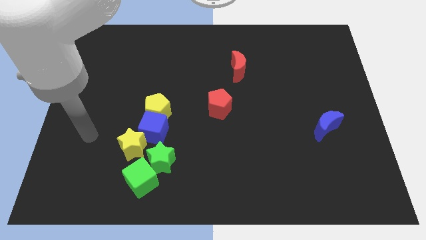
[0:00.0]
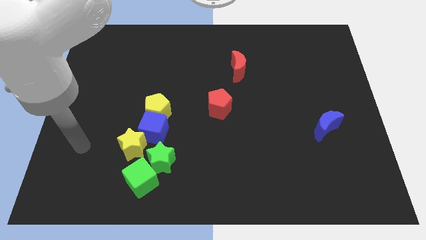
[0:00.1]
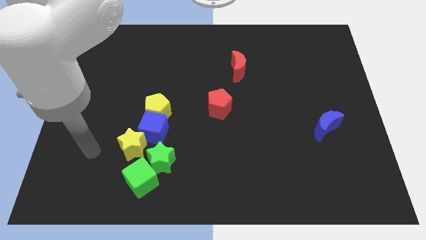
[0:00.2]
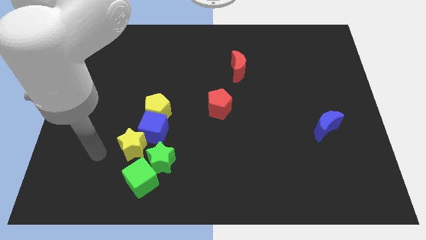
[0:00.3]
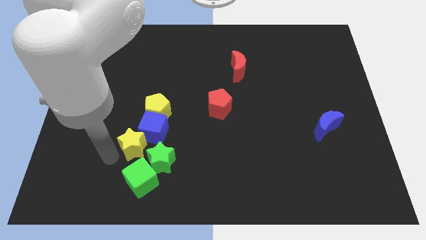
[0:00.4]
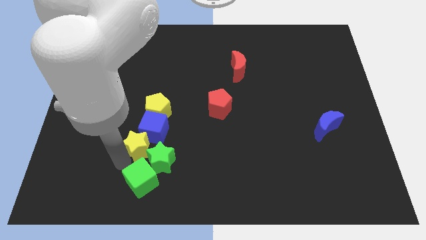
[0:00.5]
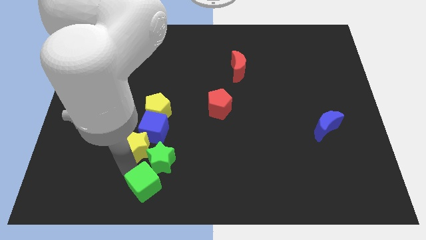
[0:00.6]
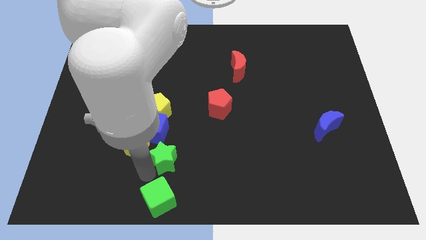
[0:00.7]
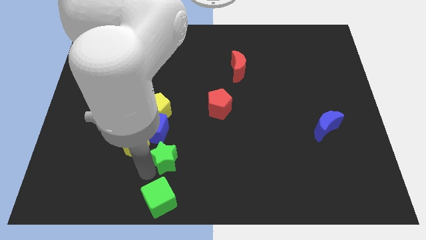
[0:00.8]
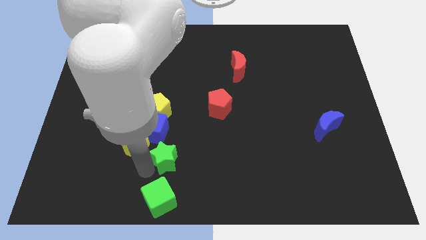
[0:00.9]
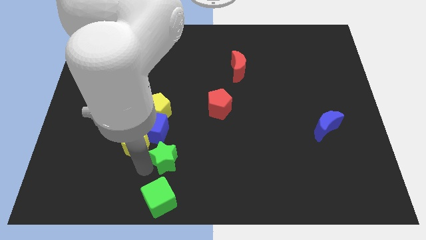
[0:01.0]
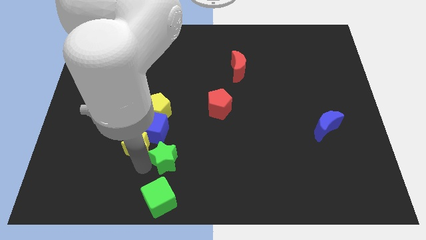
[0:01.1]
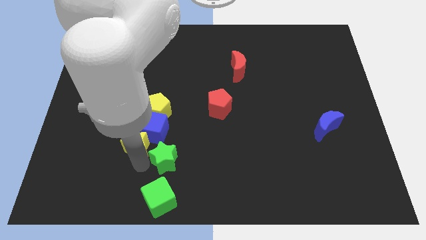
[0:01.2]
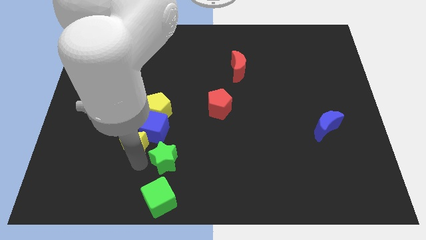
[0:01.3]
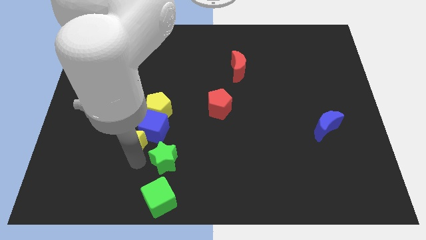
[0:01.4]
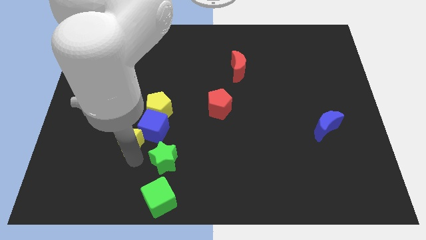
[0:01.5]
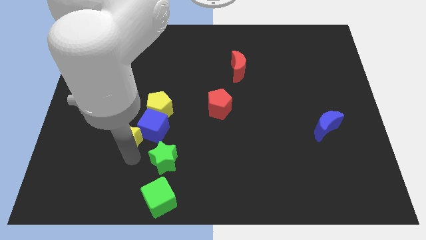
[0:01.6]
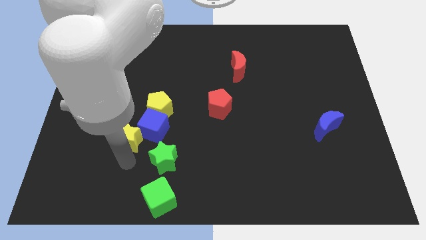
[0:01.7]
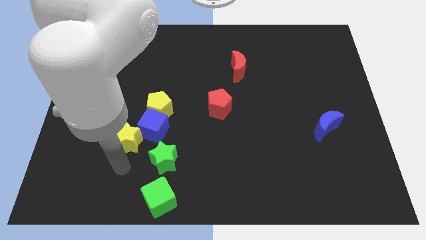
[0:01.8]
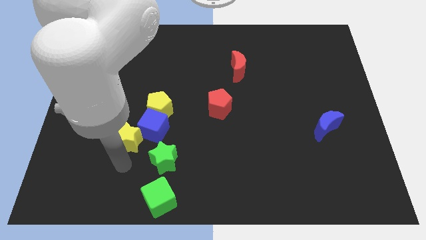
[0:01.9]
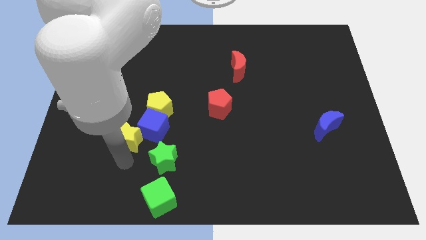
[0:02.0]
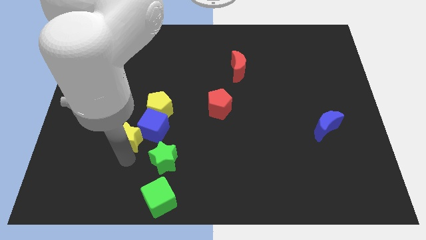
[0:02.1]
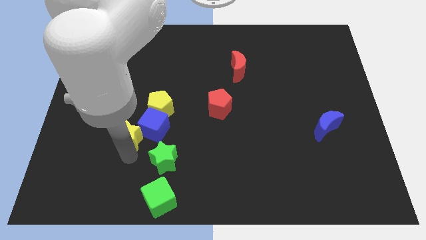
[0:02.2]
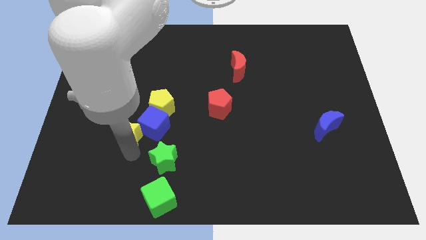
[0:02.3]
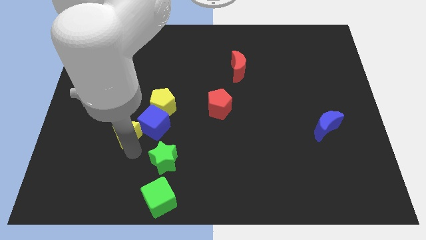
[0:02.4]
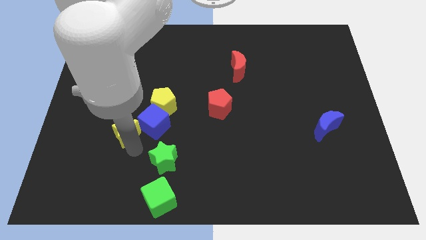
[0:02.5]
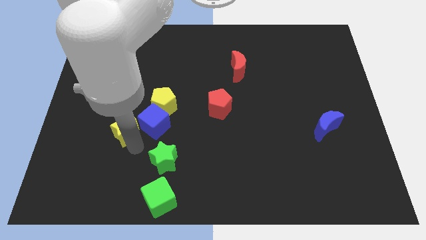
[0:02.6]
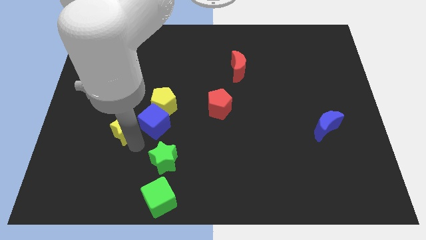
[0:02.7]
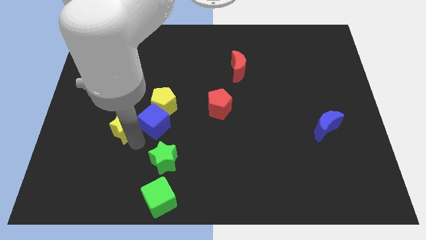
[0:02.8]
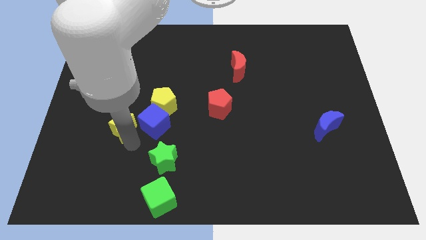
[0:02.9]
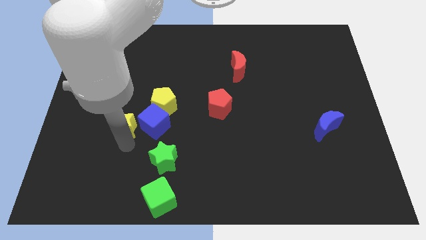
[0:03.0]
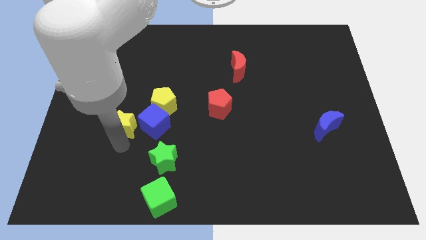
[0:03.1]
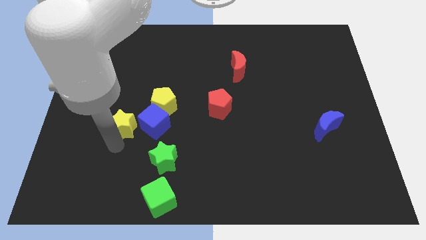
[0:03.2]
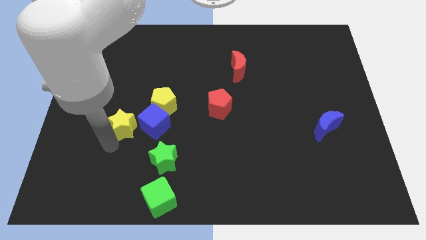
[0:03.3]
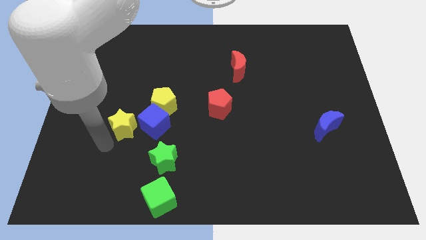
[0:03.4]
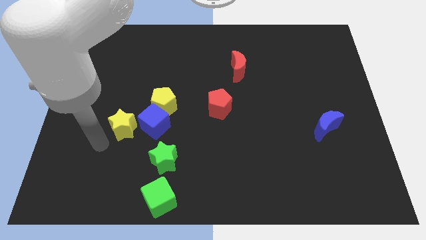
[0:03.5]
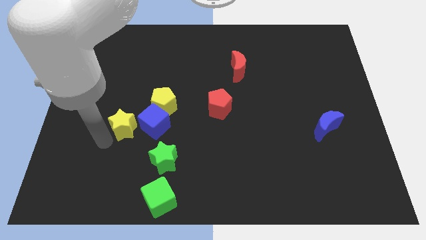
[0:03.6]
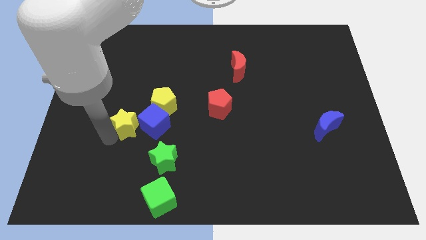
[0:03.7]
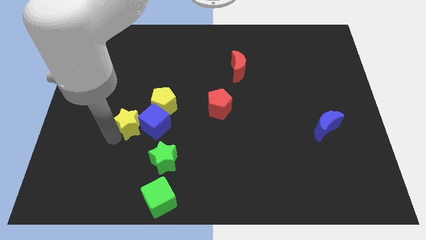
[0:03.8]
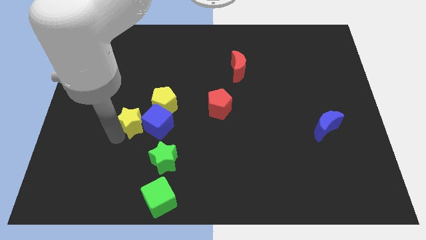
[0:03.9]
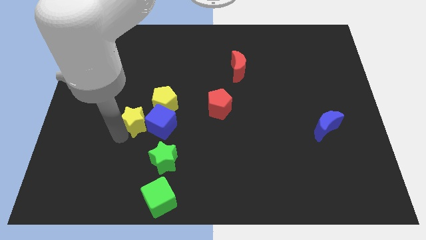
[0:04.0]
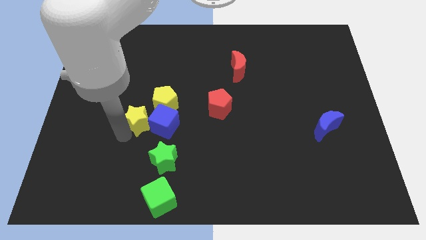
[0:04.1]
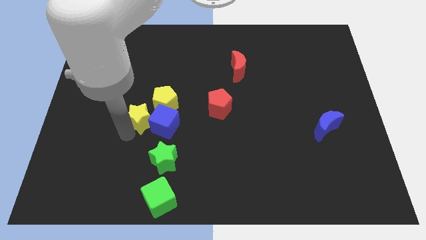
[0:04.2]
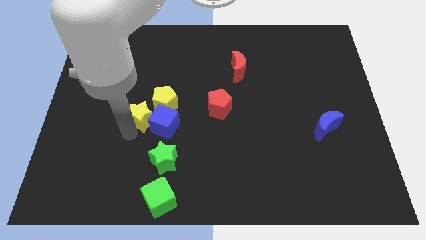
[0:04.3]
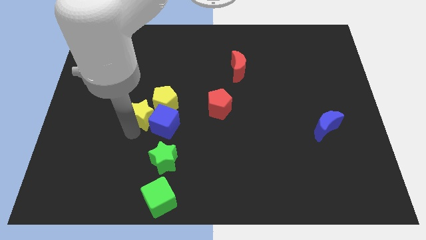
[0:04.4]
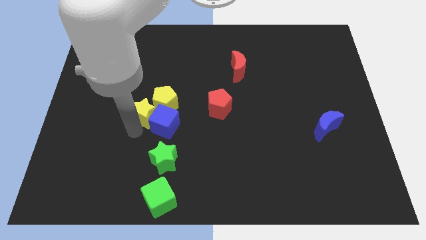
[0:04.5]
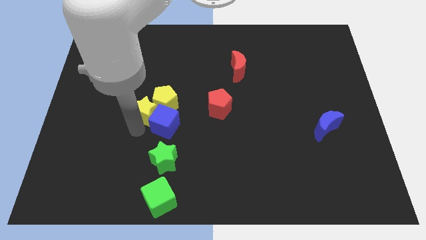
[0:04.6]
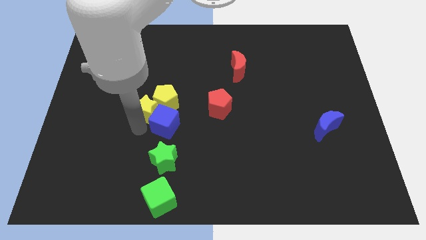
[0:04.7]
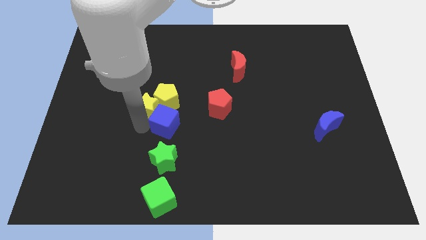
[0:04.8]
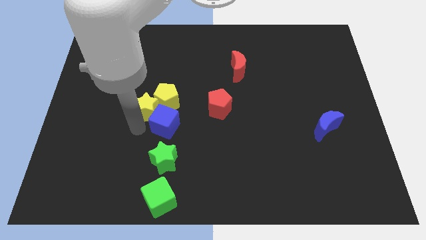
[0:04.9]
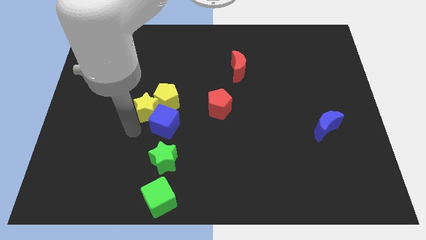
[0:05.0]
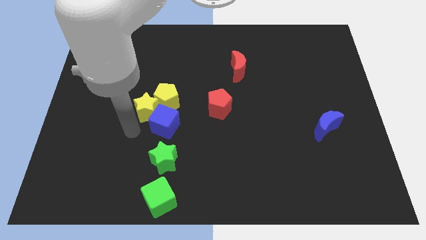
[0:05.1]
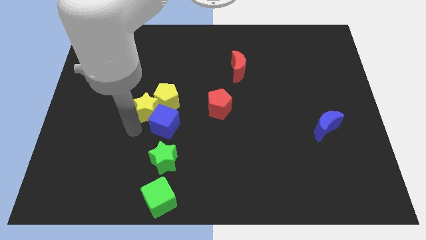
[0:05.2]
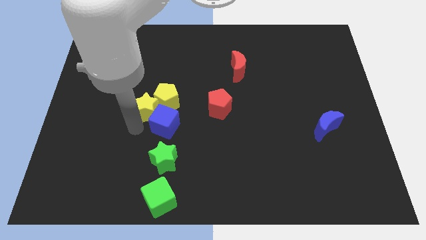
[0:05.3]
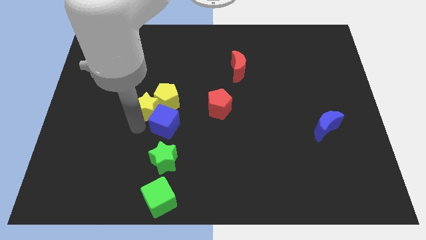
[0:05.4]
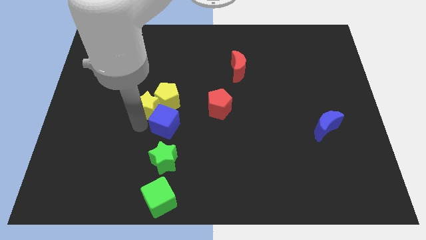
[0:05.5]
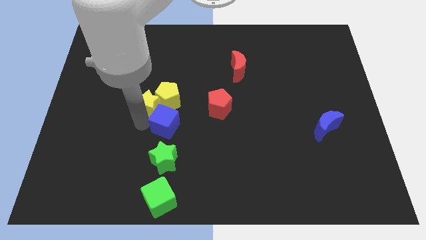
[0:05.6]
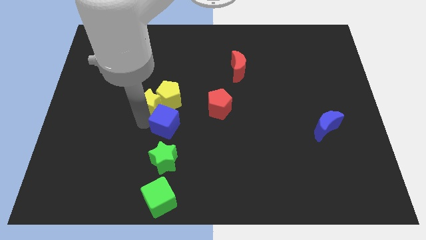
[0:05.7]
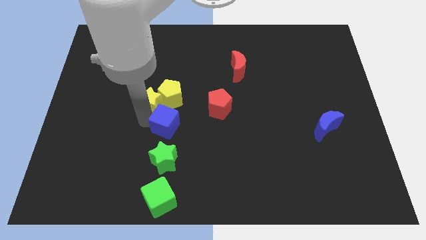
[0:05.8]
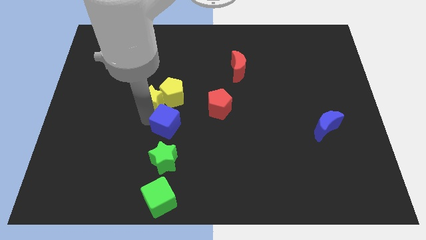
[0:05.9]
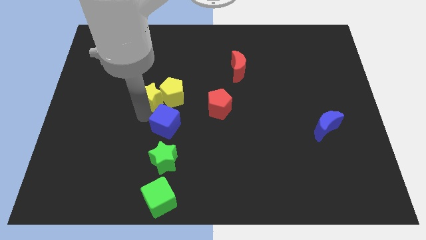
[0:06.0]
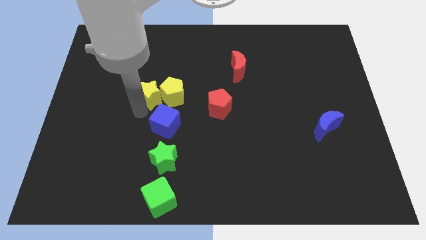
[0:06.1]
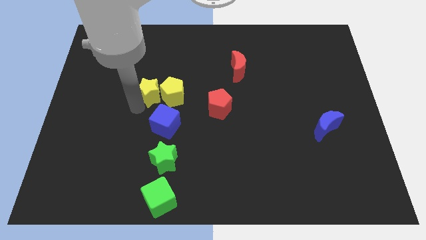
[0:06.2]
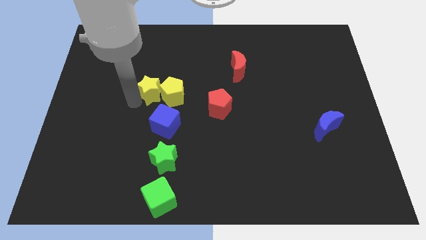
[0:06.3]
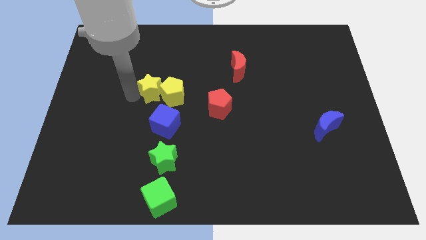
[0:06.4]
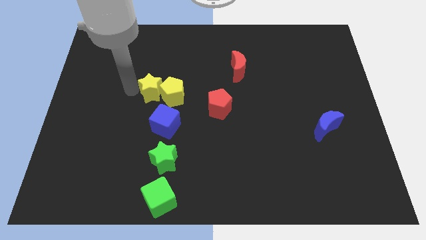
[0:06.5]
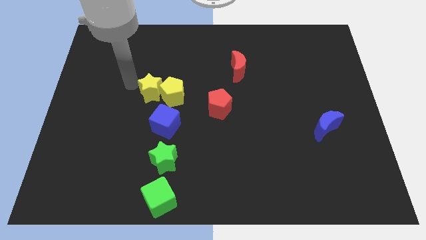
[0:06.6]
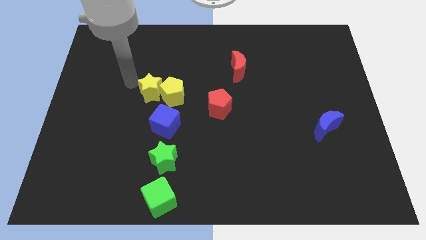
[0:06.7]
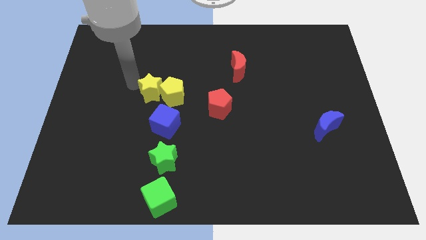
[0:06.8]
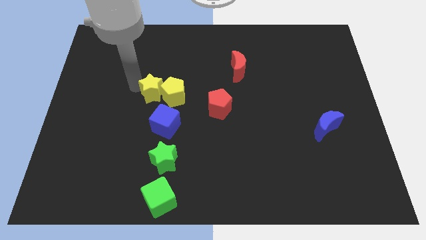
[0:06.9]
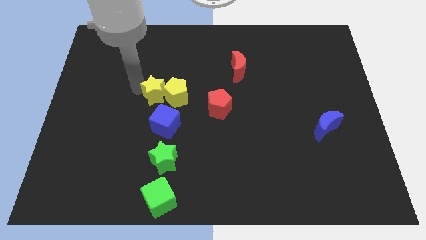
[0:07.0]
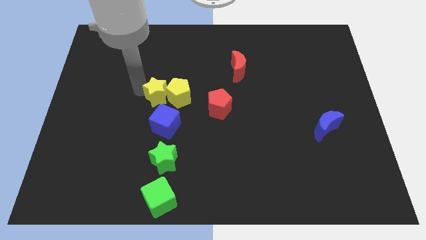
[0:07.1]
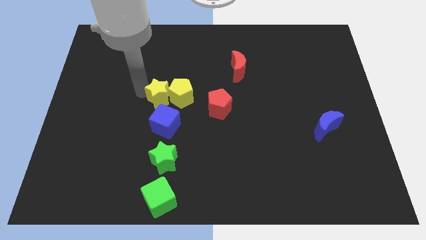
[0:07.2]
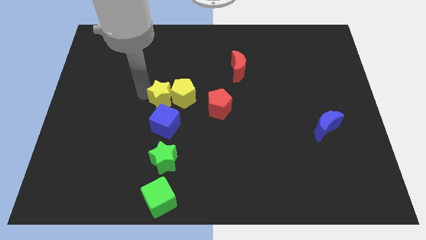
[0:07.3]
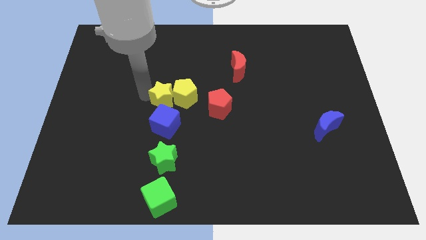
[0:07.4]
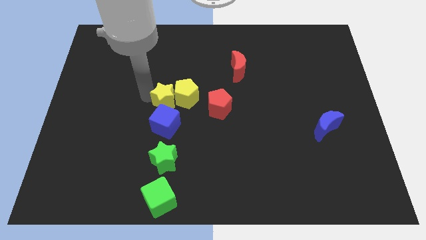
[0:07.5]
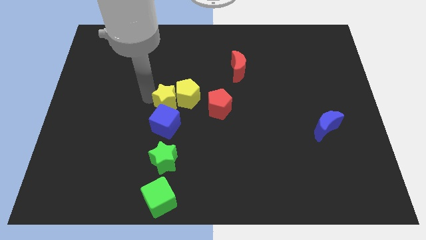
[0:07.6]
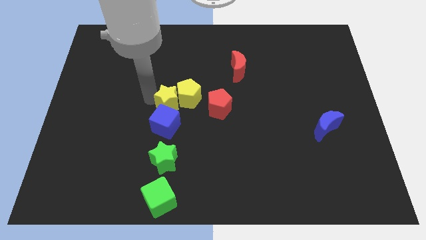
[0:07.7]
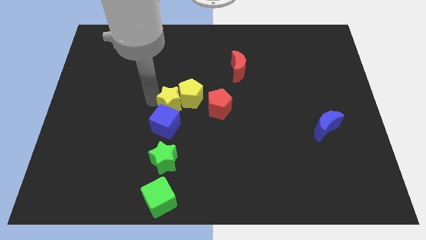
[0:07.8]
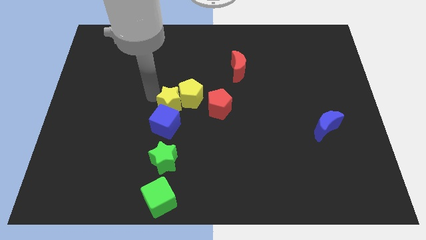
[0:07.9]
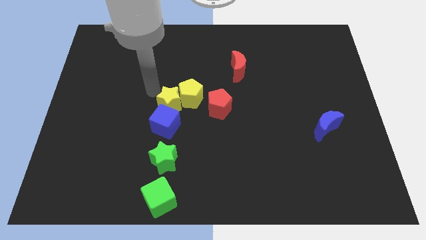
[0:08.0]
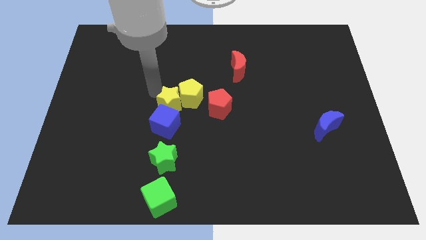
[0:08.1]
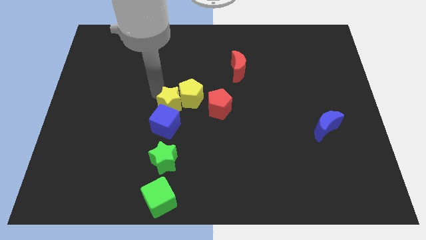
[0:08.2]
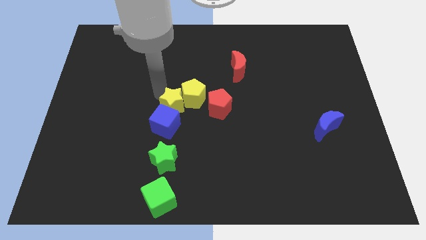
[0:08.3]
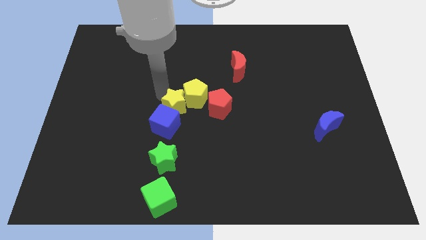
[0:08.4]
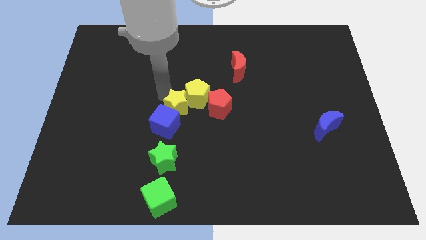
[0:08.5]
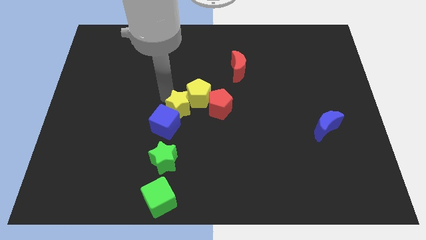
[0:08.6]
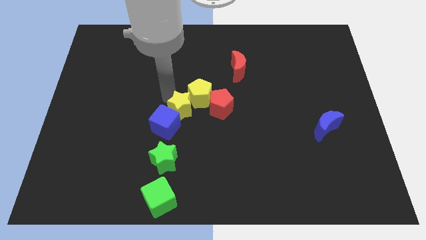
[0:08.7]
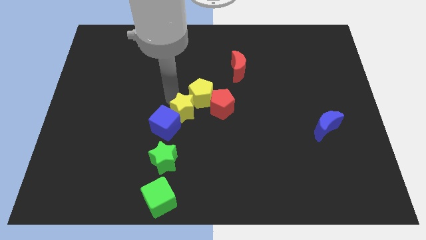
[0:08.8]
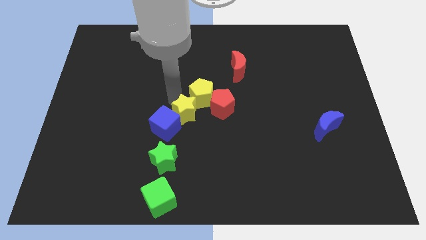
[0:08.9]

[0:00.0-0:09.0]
slide the yellow star right a little
